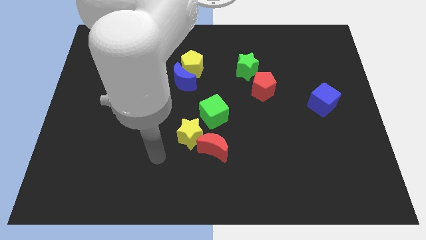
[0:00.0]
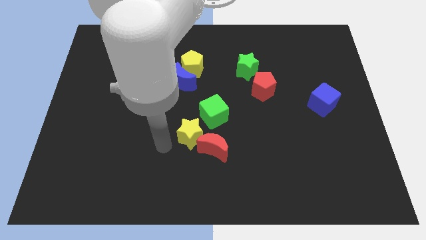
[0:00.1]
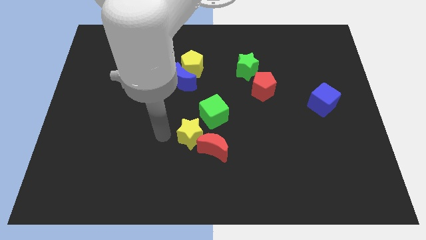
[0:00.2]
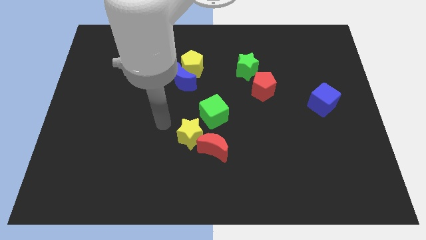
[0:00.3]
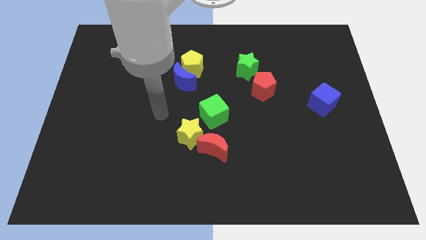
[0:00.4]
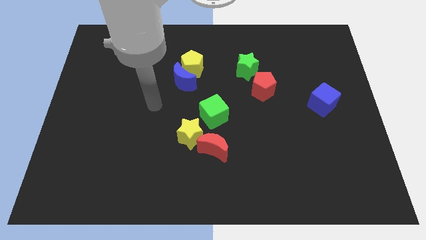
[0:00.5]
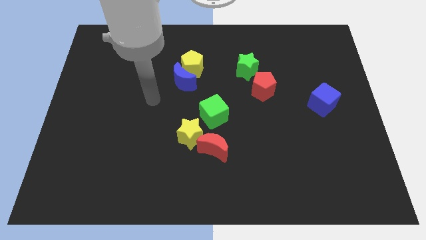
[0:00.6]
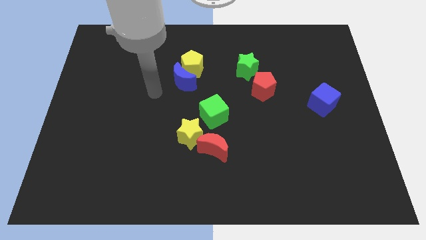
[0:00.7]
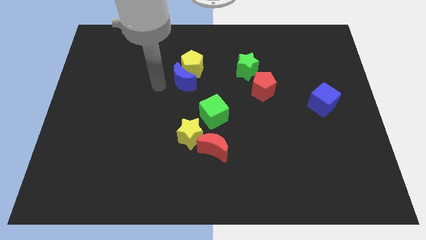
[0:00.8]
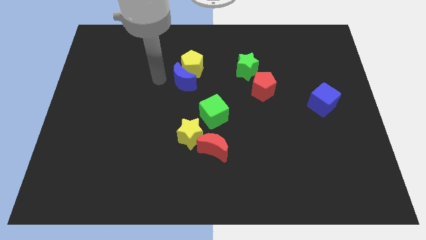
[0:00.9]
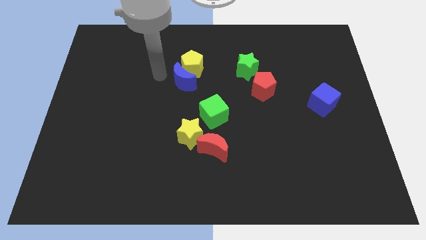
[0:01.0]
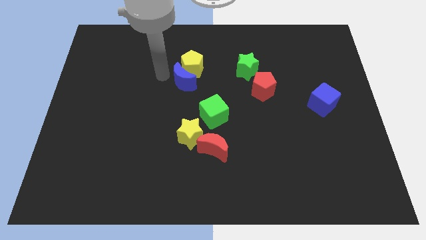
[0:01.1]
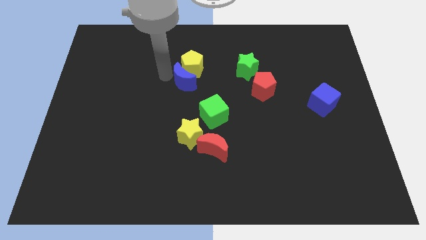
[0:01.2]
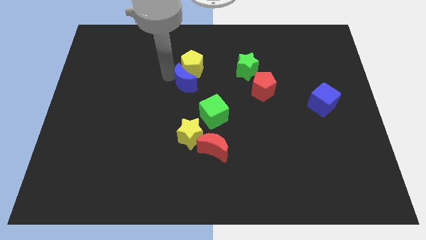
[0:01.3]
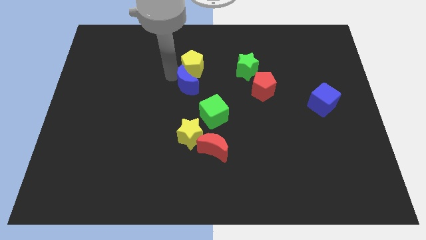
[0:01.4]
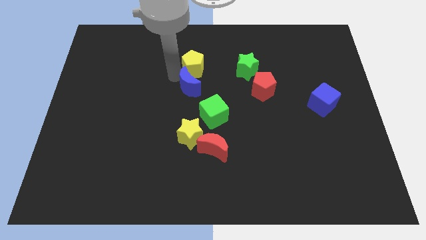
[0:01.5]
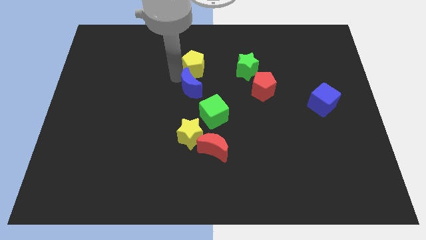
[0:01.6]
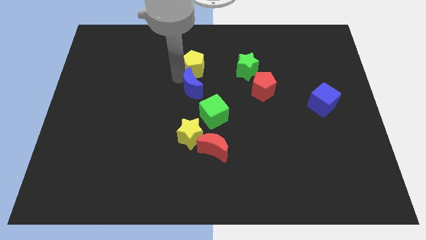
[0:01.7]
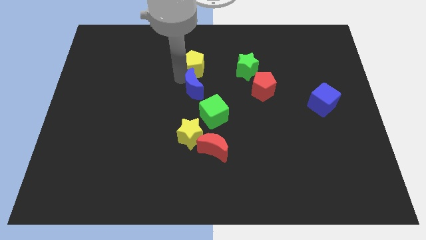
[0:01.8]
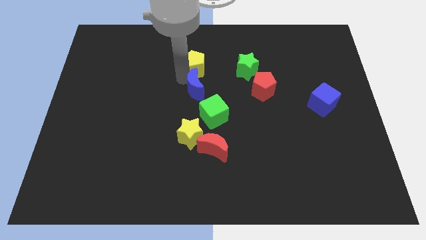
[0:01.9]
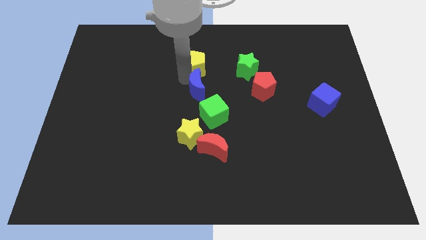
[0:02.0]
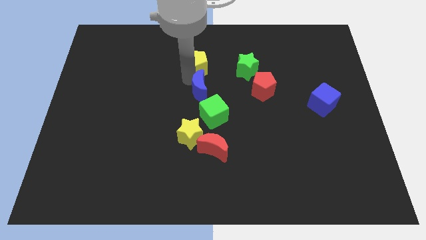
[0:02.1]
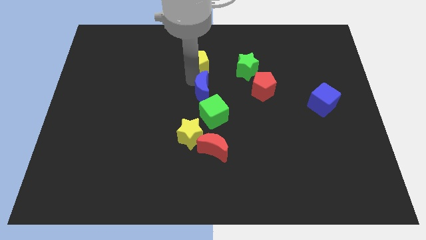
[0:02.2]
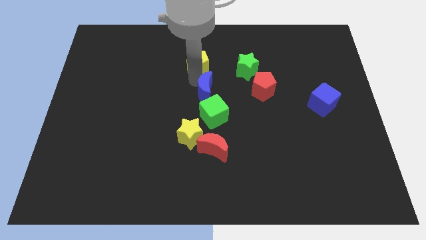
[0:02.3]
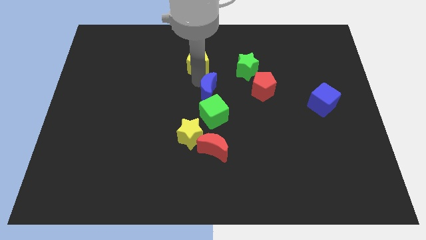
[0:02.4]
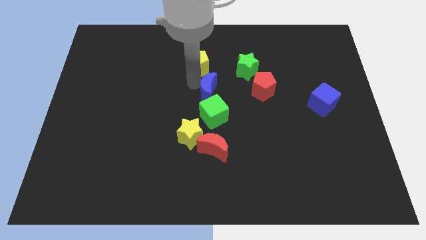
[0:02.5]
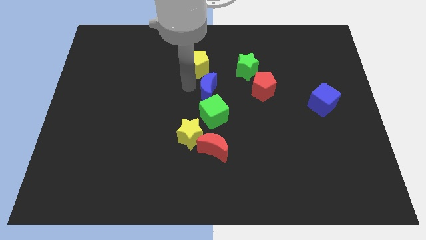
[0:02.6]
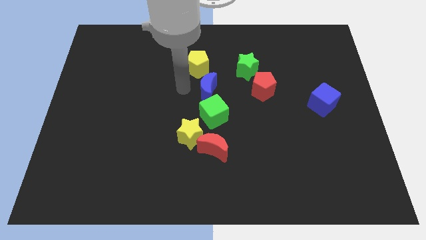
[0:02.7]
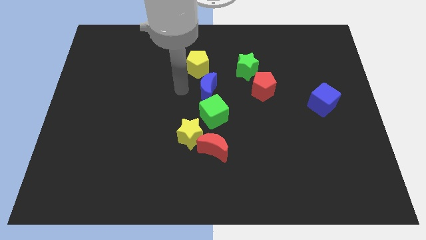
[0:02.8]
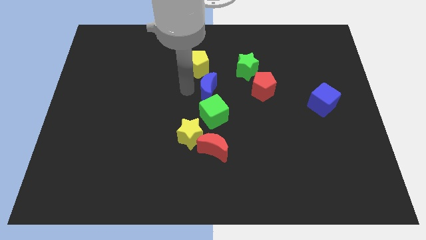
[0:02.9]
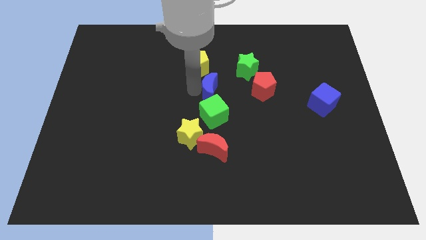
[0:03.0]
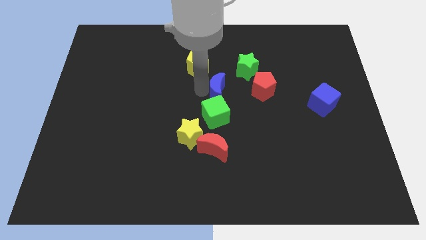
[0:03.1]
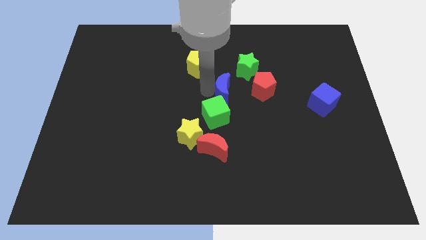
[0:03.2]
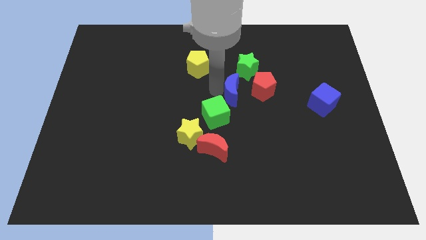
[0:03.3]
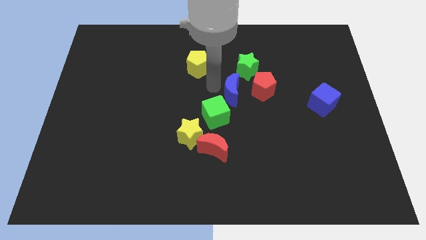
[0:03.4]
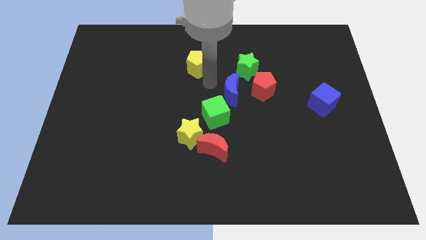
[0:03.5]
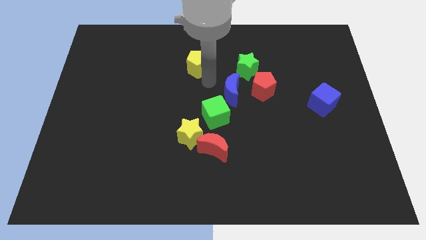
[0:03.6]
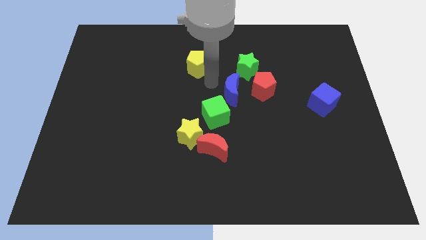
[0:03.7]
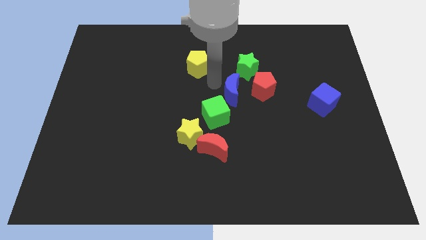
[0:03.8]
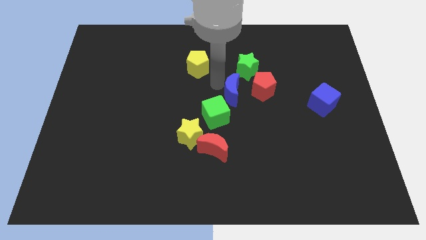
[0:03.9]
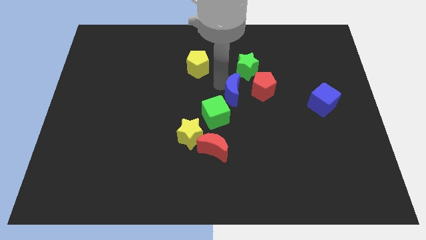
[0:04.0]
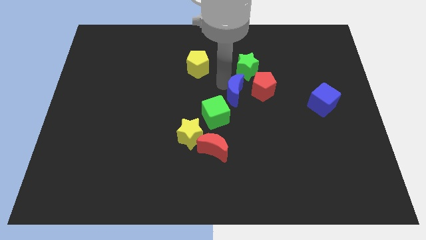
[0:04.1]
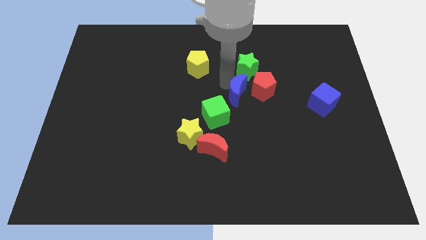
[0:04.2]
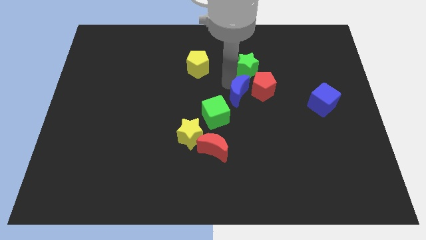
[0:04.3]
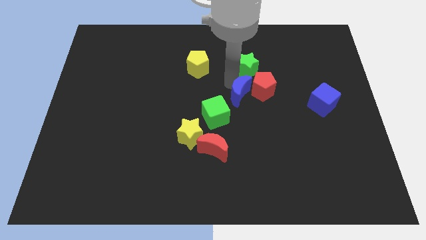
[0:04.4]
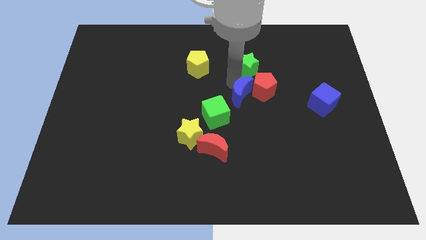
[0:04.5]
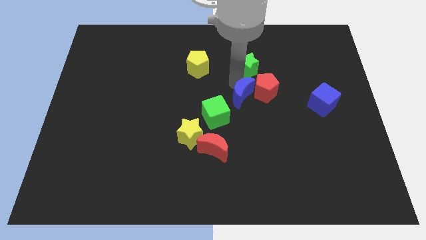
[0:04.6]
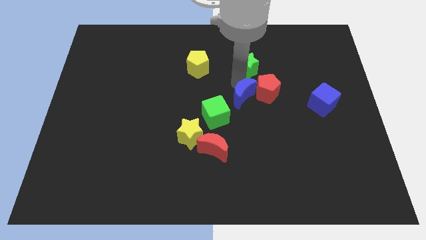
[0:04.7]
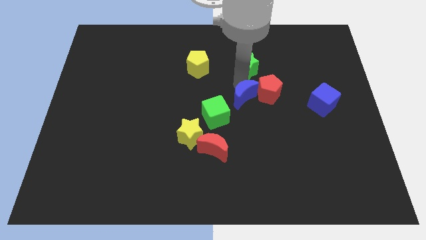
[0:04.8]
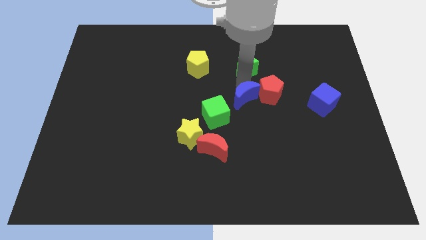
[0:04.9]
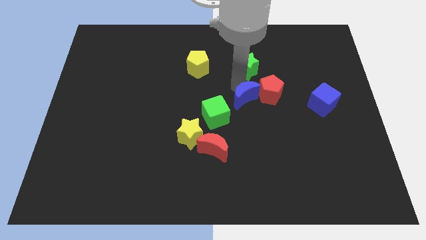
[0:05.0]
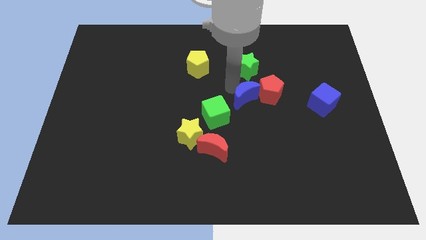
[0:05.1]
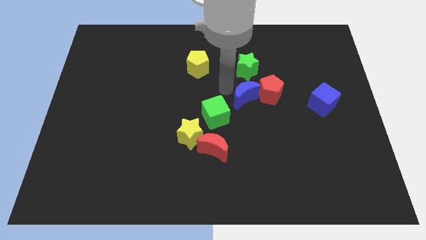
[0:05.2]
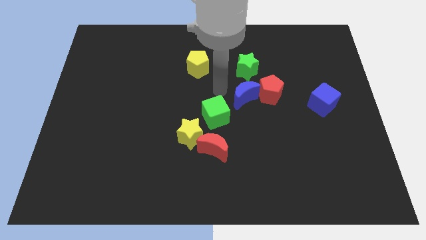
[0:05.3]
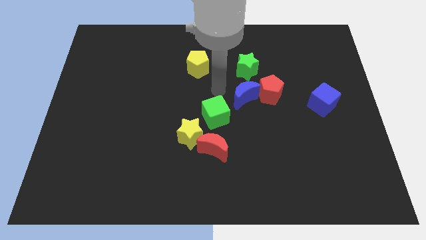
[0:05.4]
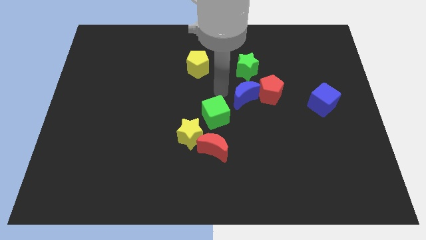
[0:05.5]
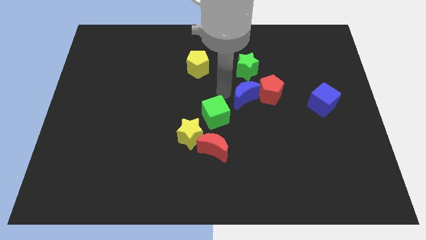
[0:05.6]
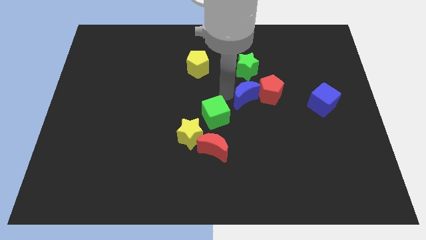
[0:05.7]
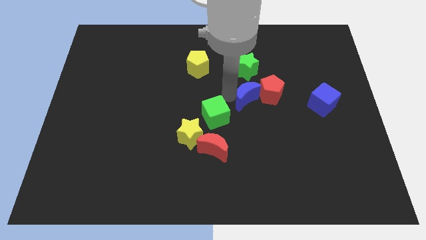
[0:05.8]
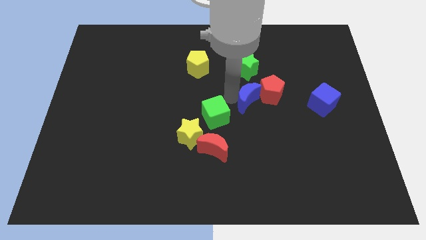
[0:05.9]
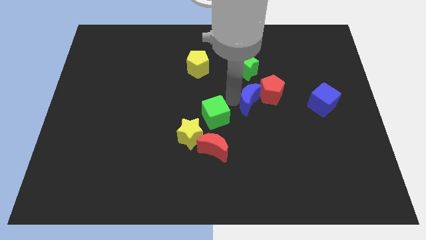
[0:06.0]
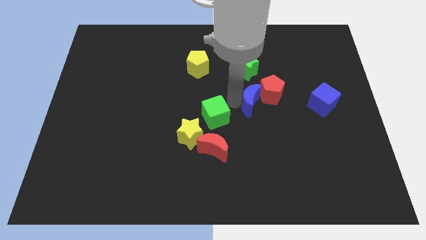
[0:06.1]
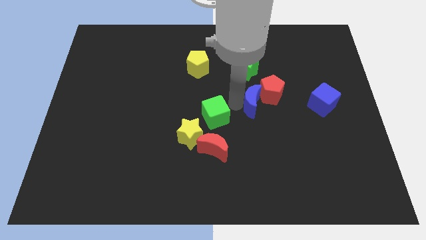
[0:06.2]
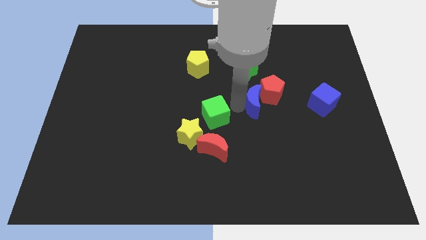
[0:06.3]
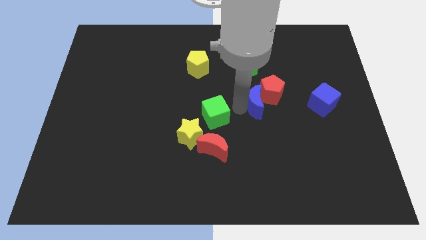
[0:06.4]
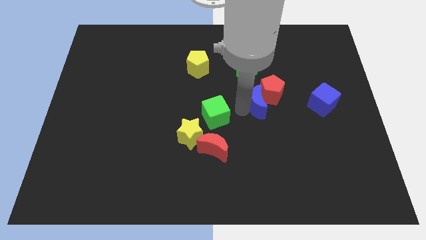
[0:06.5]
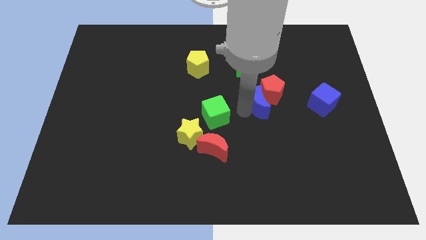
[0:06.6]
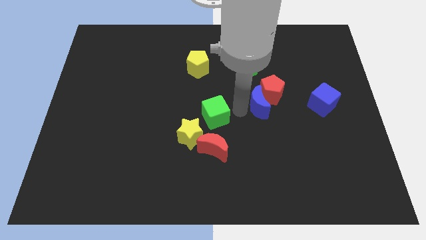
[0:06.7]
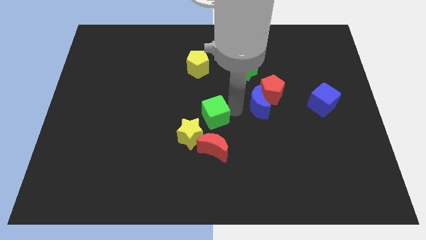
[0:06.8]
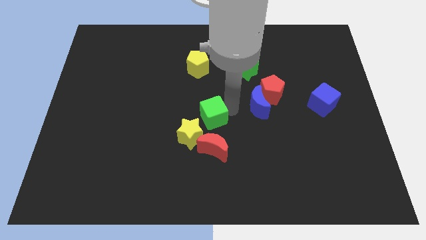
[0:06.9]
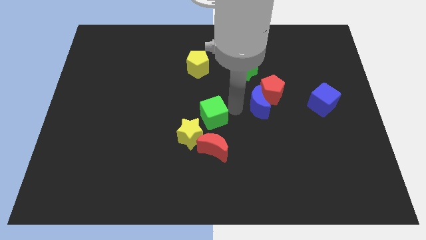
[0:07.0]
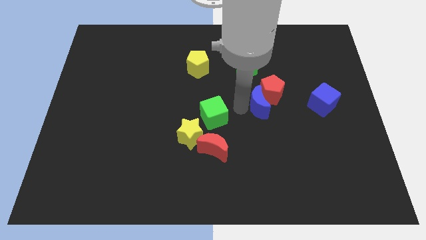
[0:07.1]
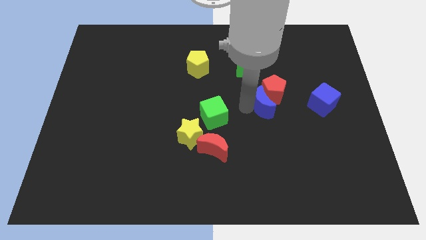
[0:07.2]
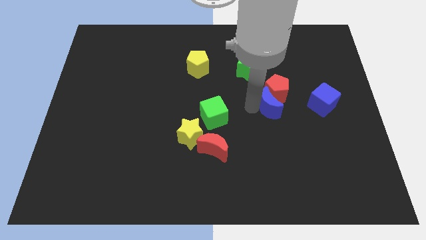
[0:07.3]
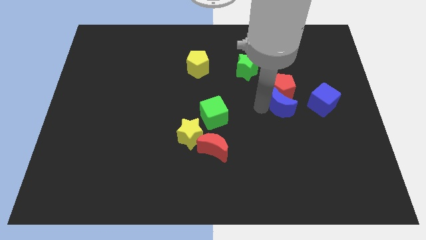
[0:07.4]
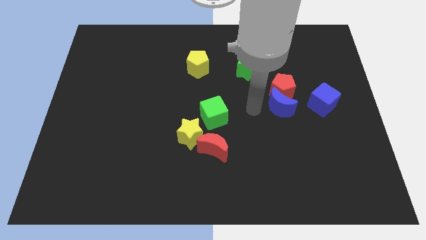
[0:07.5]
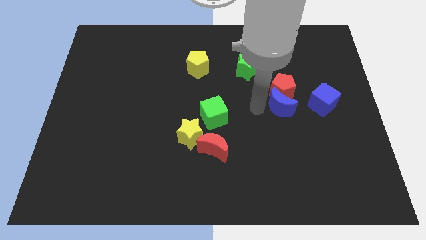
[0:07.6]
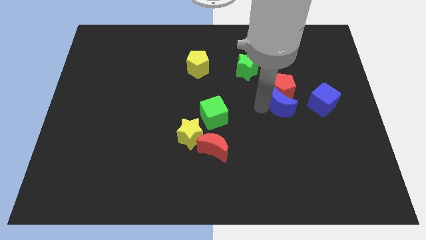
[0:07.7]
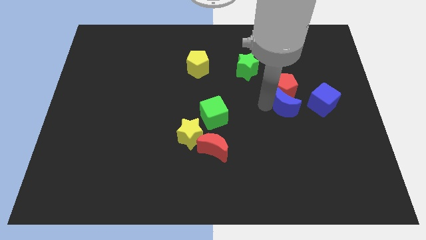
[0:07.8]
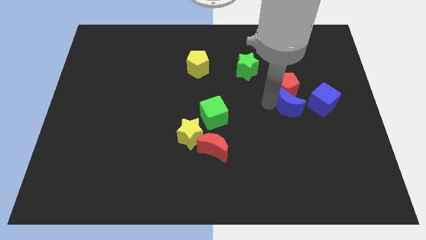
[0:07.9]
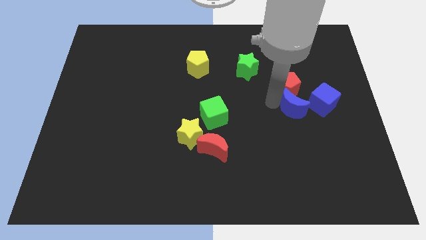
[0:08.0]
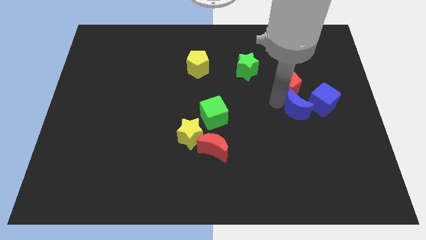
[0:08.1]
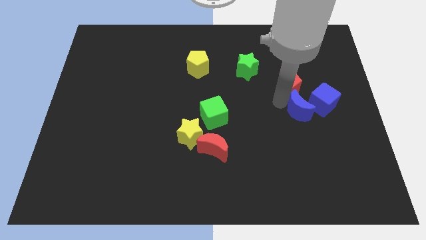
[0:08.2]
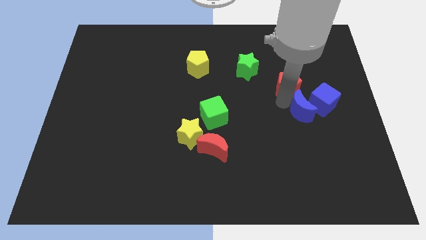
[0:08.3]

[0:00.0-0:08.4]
put the blue moon next to the blue cube
